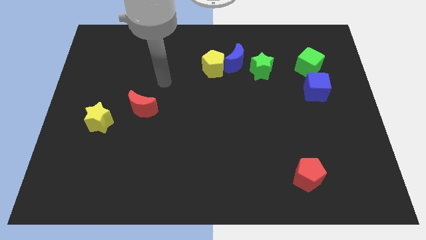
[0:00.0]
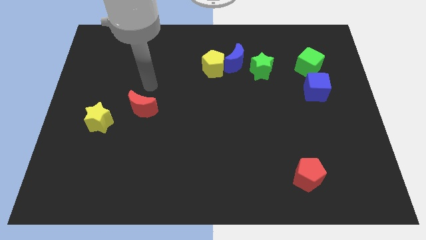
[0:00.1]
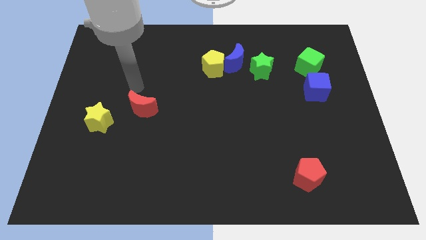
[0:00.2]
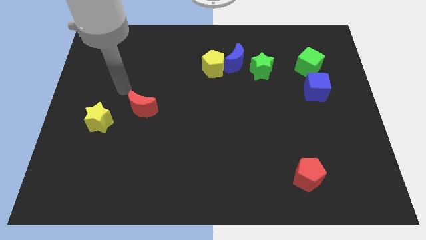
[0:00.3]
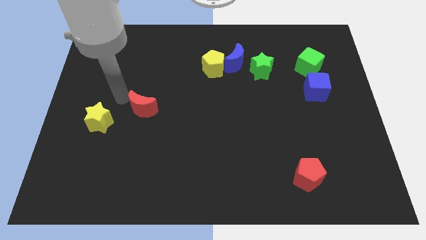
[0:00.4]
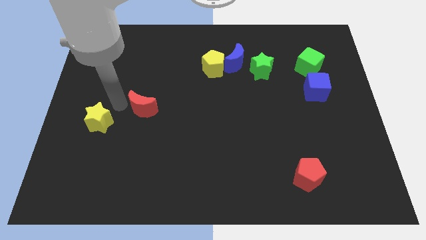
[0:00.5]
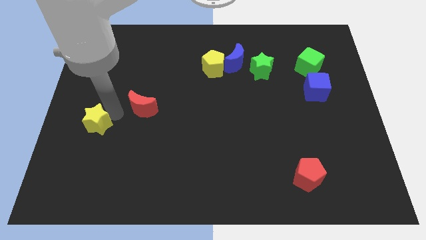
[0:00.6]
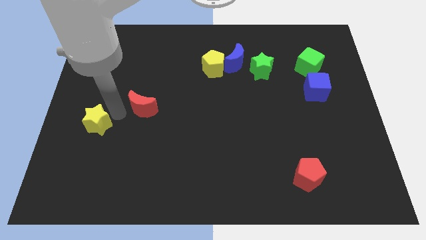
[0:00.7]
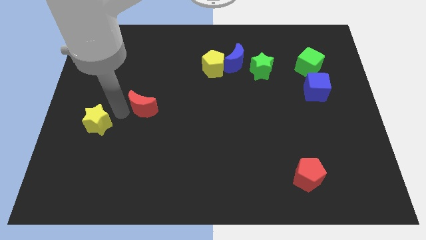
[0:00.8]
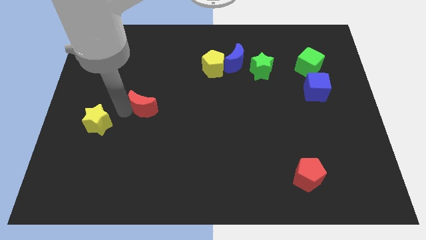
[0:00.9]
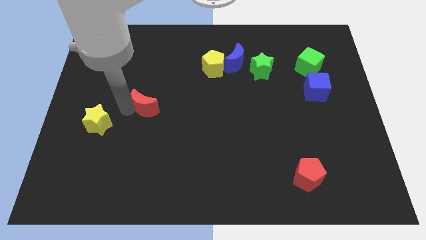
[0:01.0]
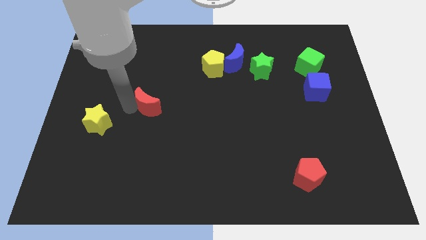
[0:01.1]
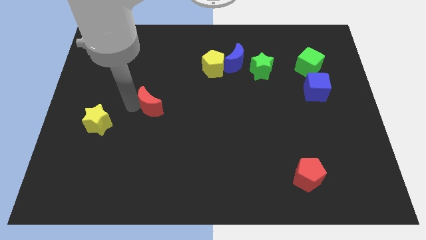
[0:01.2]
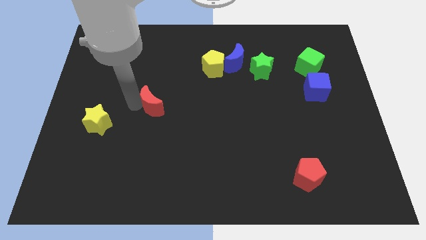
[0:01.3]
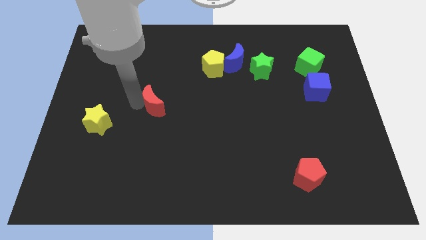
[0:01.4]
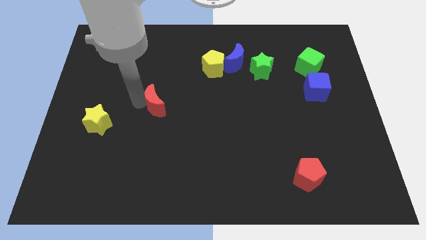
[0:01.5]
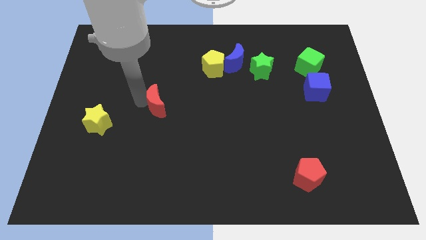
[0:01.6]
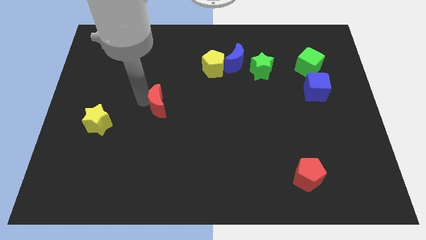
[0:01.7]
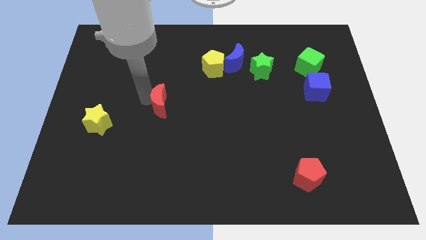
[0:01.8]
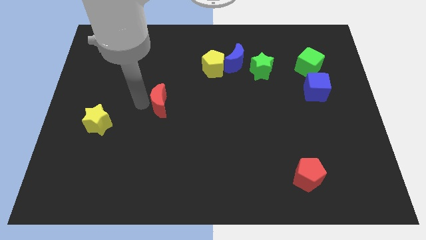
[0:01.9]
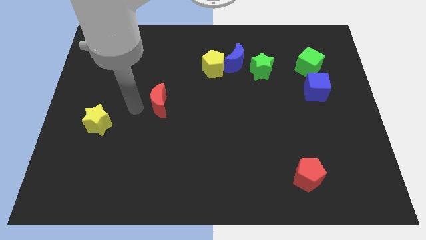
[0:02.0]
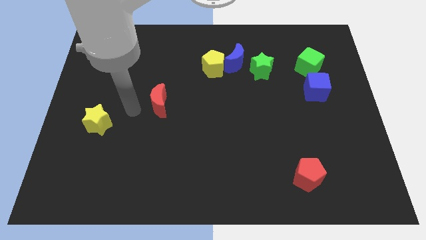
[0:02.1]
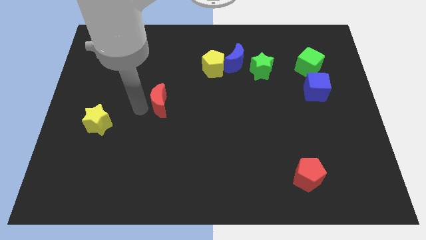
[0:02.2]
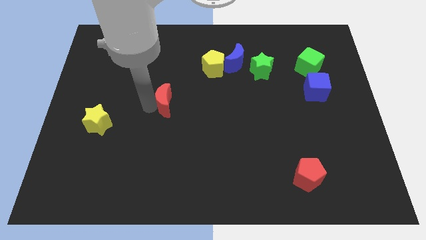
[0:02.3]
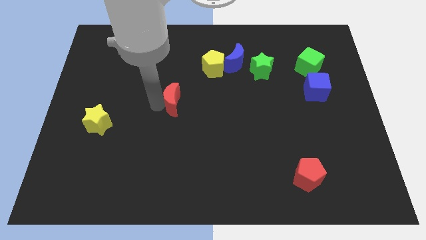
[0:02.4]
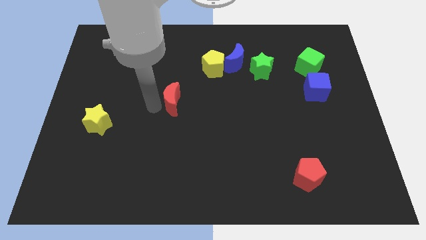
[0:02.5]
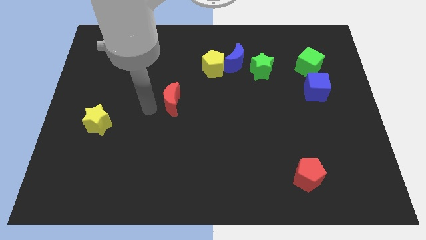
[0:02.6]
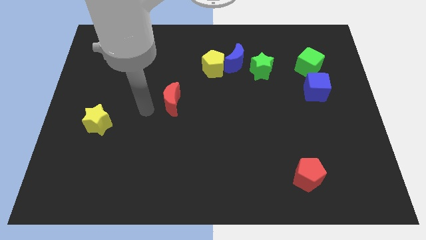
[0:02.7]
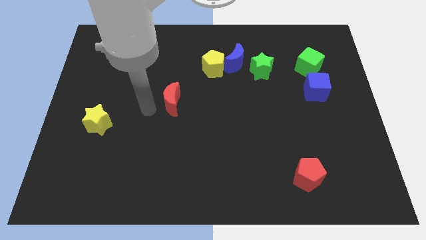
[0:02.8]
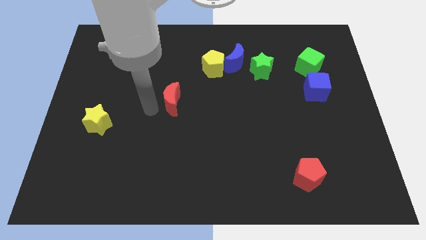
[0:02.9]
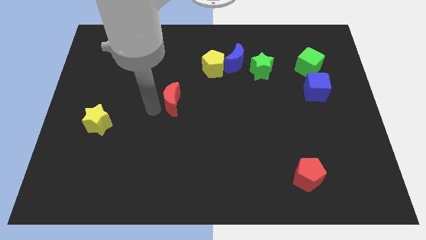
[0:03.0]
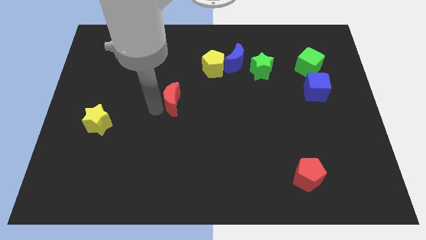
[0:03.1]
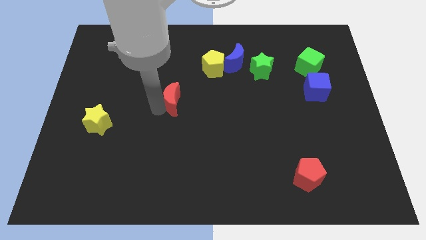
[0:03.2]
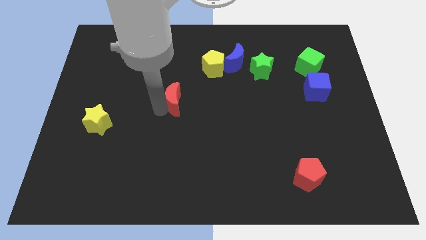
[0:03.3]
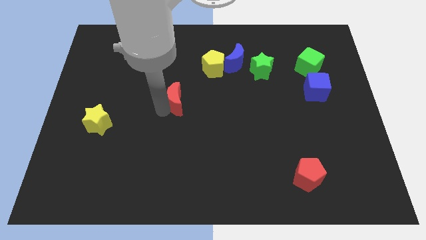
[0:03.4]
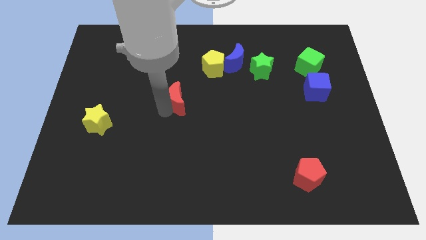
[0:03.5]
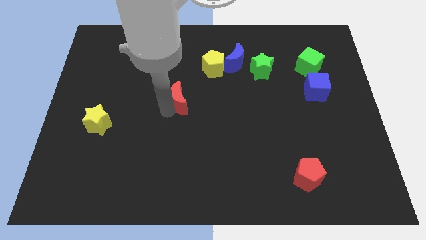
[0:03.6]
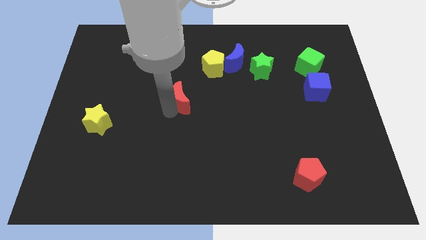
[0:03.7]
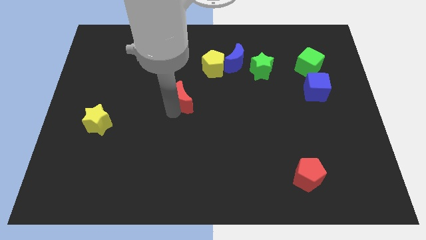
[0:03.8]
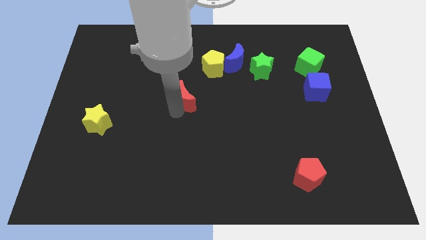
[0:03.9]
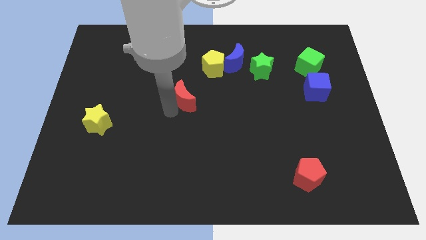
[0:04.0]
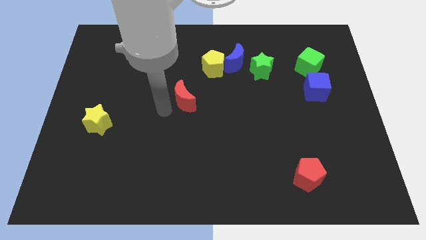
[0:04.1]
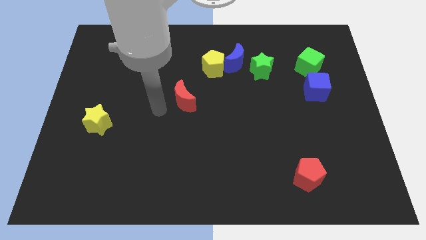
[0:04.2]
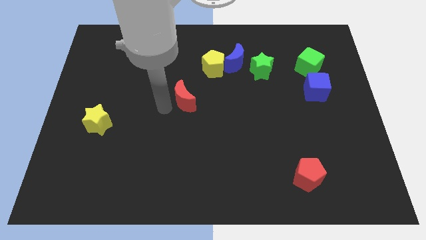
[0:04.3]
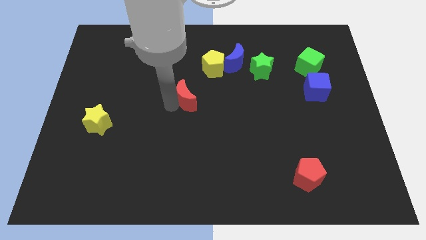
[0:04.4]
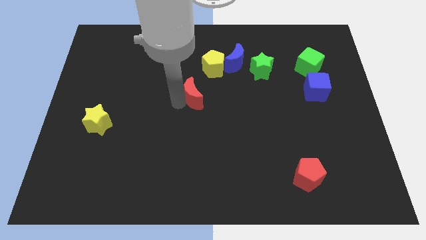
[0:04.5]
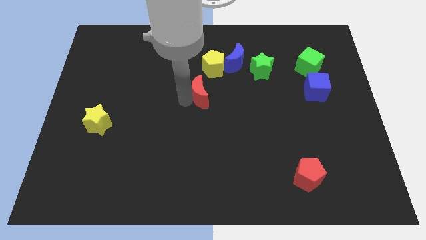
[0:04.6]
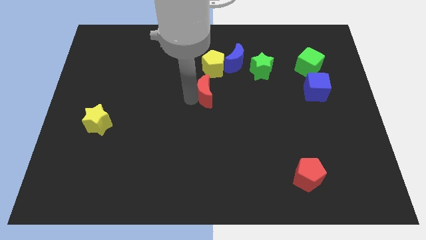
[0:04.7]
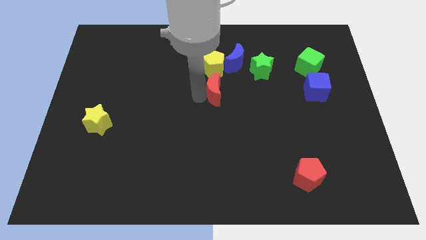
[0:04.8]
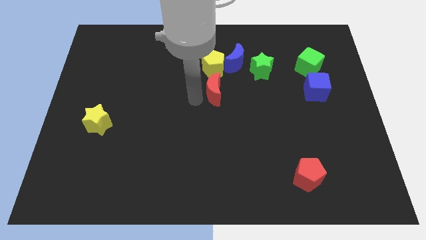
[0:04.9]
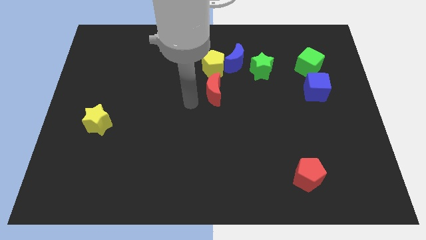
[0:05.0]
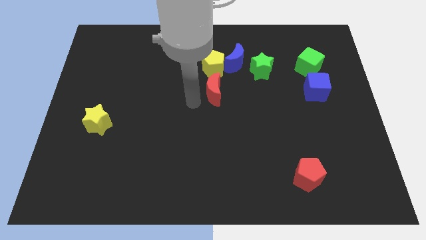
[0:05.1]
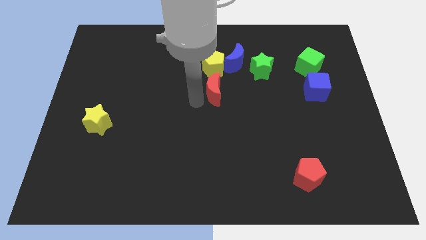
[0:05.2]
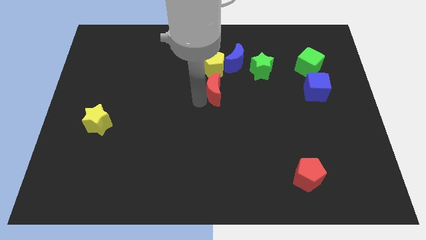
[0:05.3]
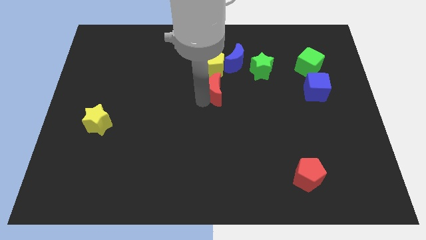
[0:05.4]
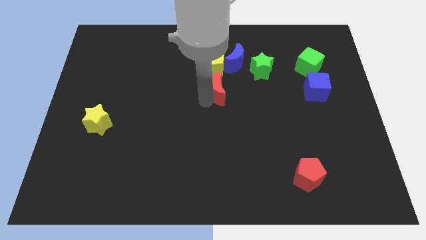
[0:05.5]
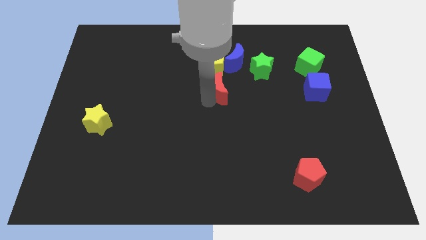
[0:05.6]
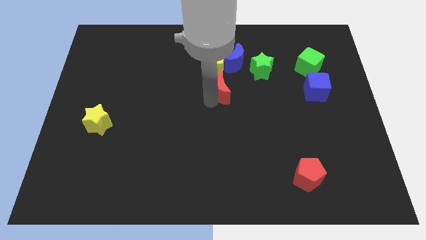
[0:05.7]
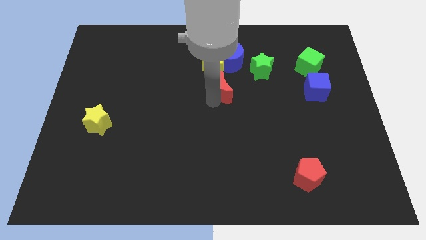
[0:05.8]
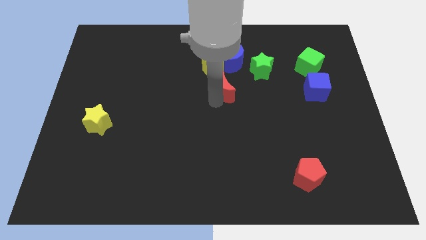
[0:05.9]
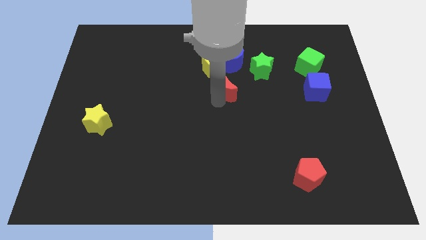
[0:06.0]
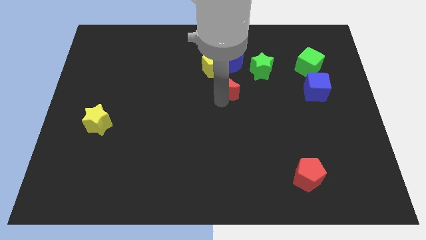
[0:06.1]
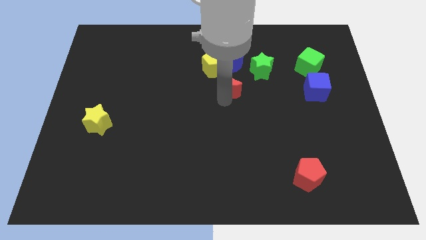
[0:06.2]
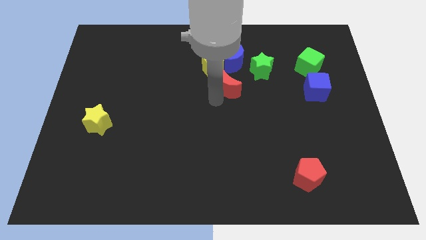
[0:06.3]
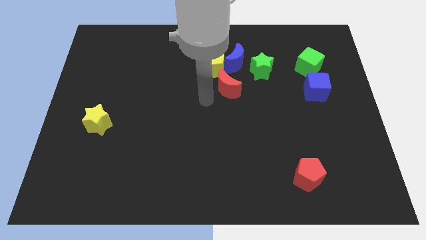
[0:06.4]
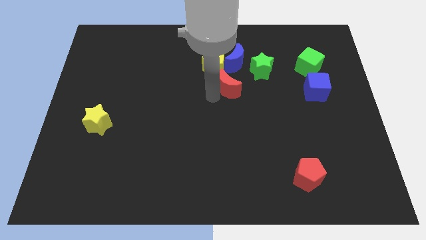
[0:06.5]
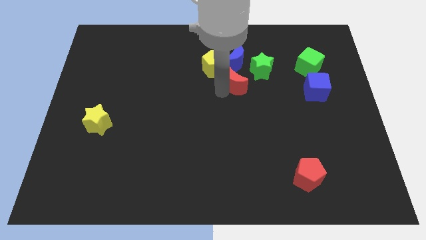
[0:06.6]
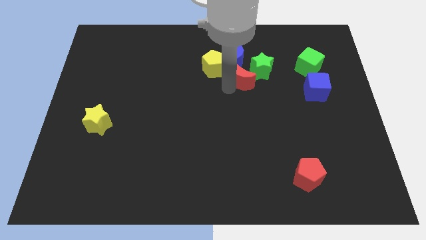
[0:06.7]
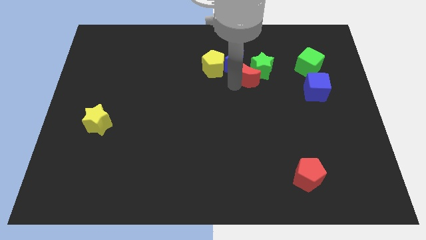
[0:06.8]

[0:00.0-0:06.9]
push the red moon towards the green star

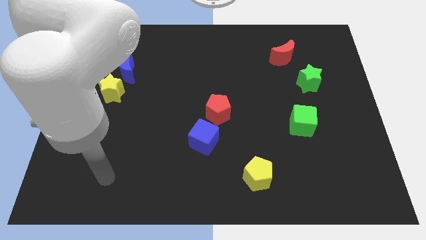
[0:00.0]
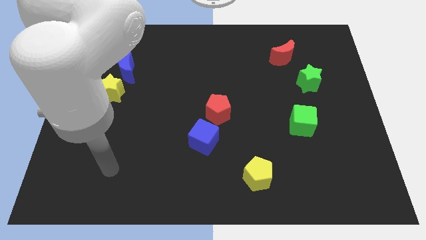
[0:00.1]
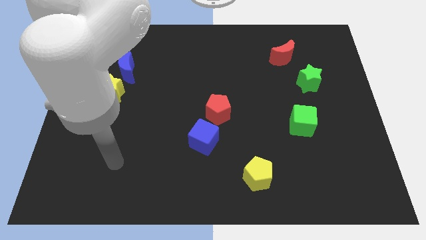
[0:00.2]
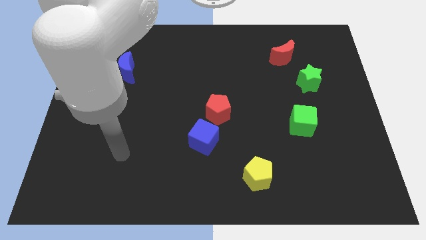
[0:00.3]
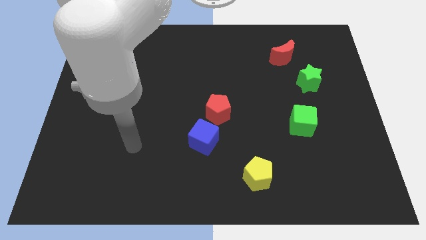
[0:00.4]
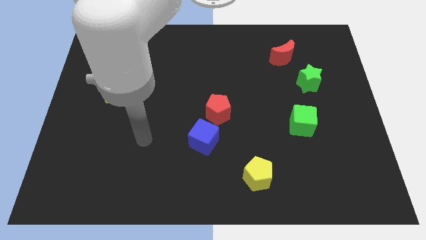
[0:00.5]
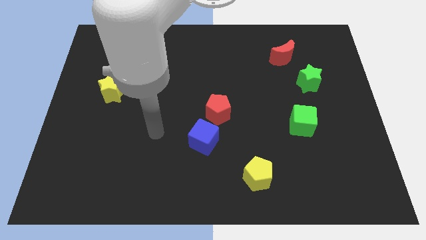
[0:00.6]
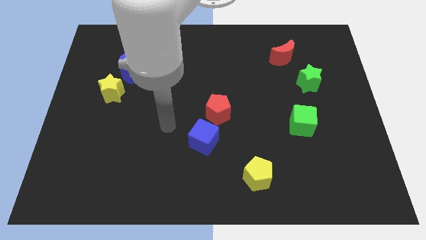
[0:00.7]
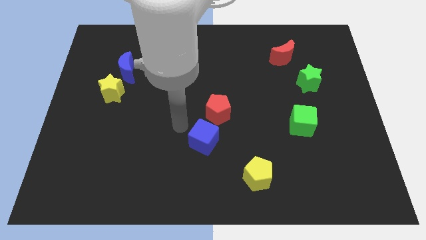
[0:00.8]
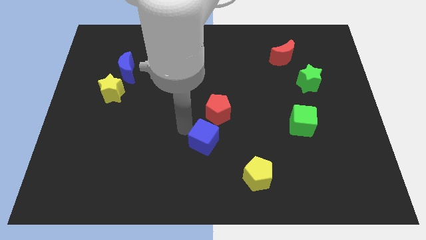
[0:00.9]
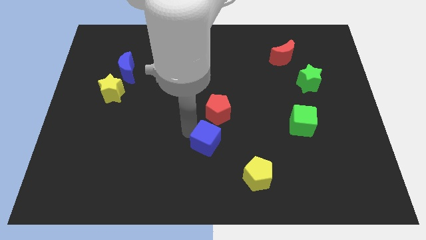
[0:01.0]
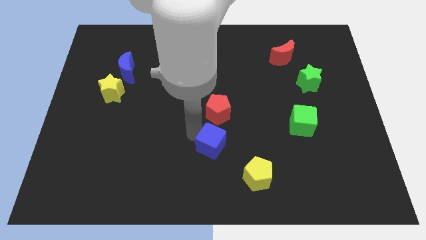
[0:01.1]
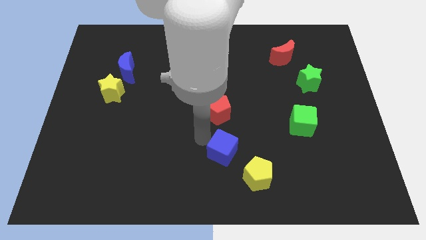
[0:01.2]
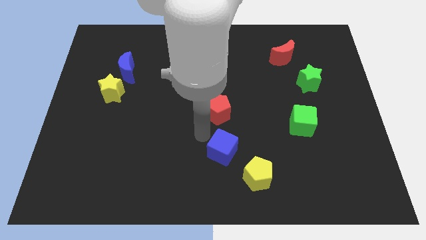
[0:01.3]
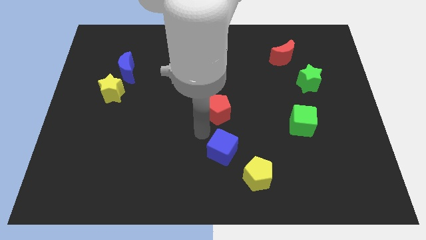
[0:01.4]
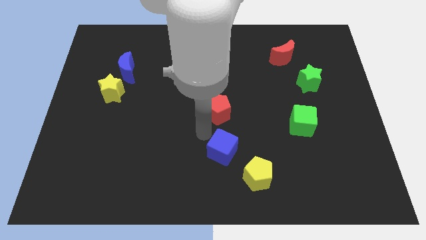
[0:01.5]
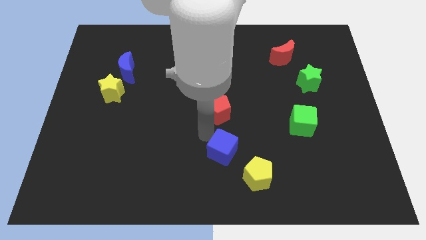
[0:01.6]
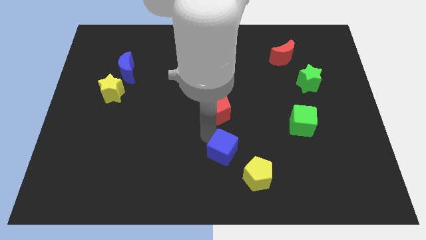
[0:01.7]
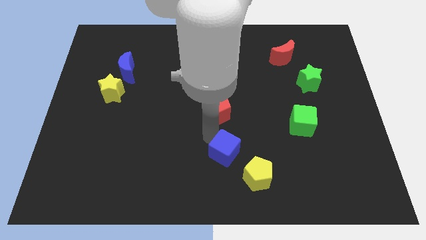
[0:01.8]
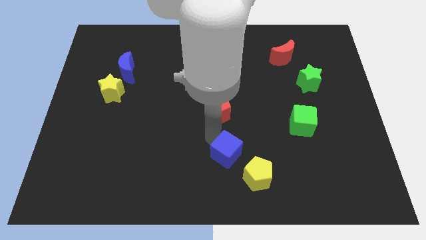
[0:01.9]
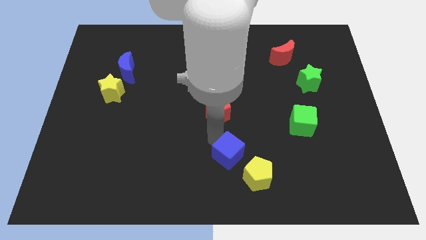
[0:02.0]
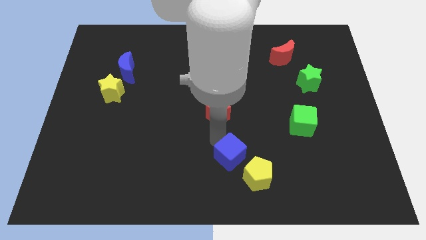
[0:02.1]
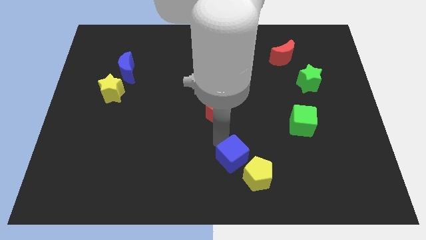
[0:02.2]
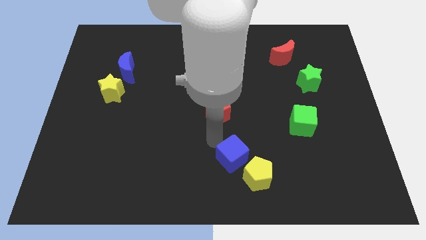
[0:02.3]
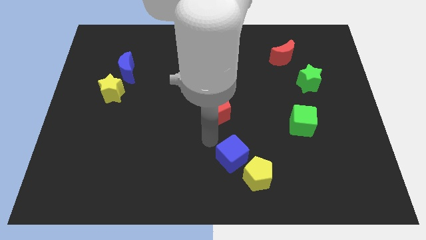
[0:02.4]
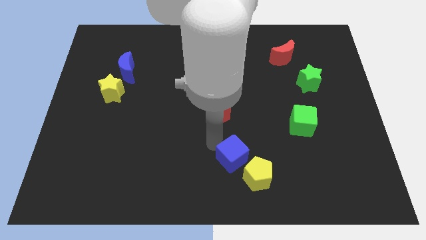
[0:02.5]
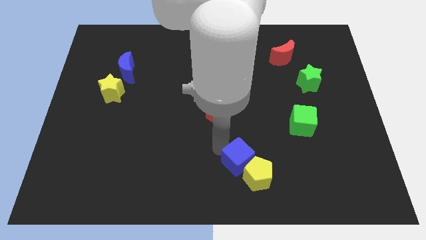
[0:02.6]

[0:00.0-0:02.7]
push the blue cube towards the yellow pentagon
